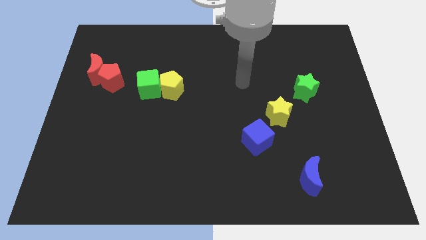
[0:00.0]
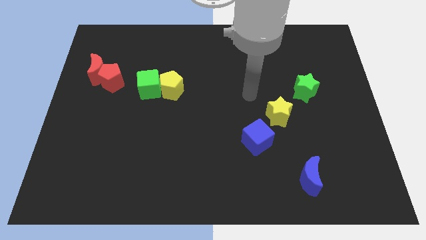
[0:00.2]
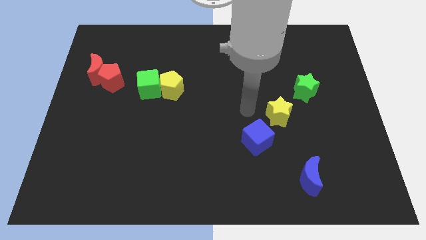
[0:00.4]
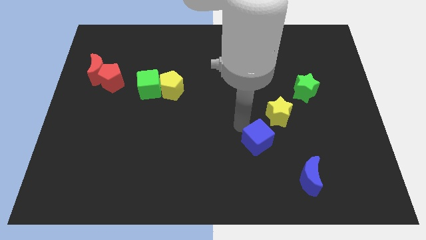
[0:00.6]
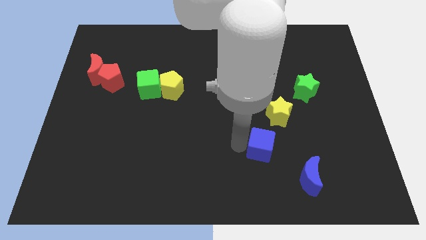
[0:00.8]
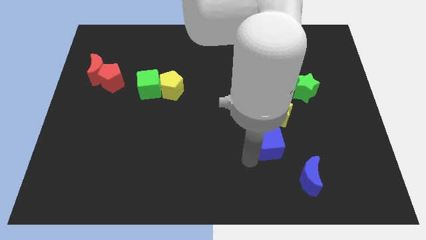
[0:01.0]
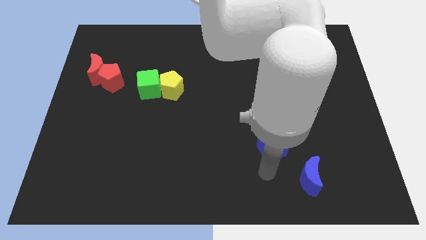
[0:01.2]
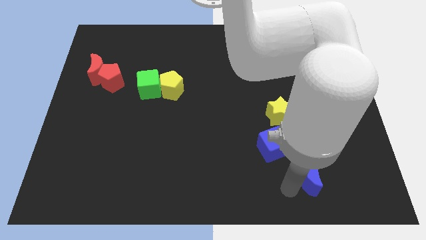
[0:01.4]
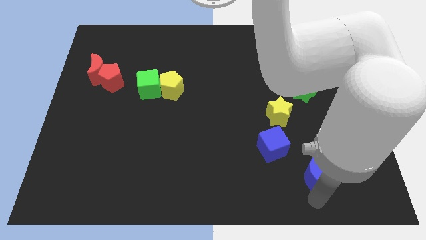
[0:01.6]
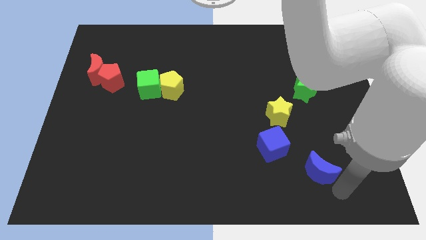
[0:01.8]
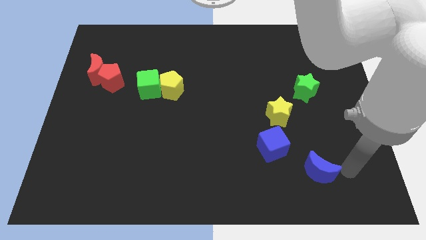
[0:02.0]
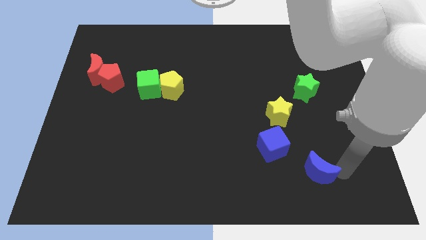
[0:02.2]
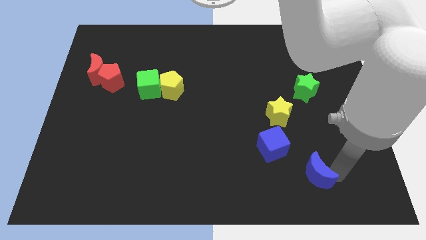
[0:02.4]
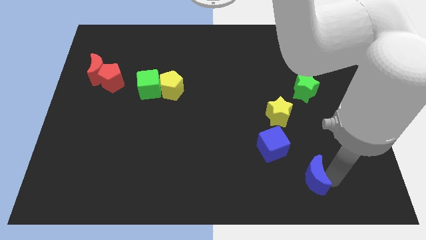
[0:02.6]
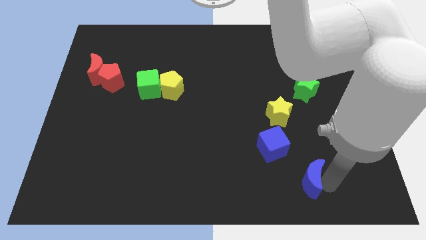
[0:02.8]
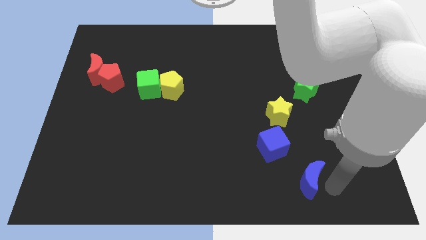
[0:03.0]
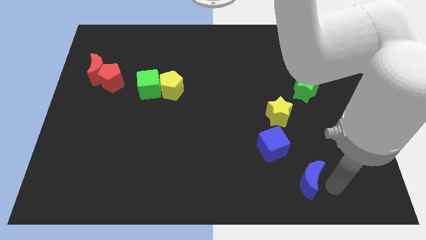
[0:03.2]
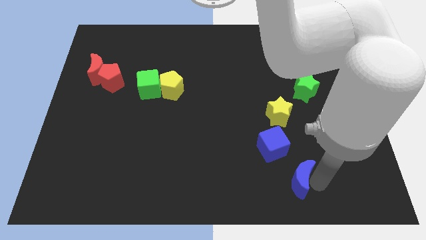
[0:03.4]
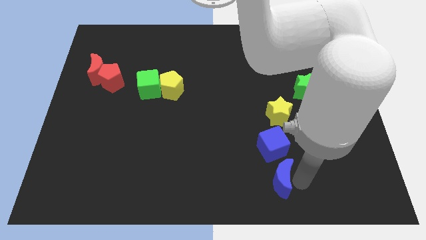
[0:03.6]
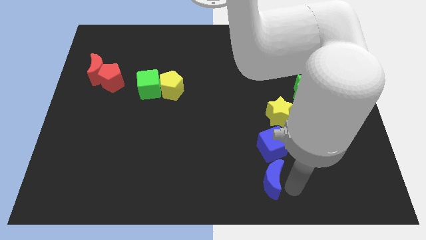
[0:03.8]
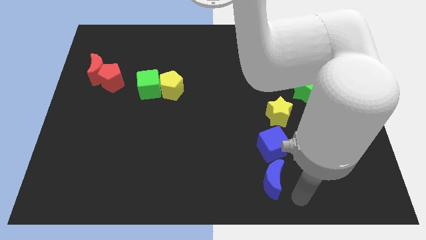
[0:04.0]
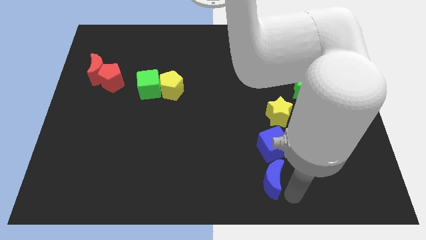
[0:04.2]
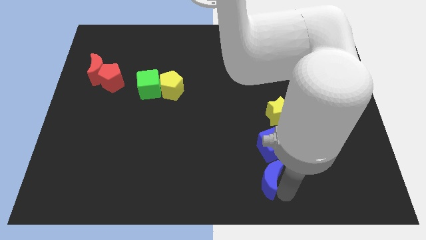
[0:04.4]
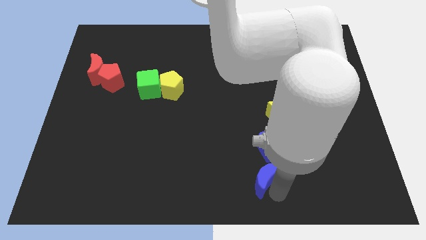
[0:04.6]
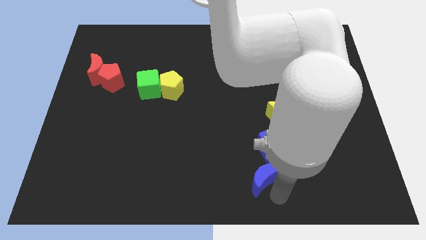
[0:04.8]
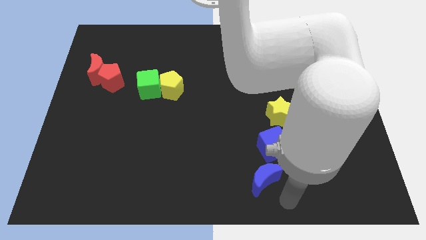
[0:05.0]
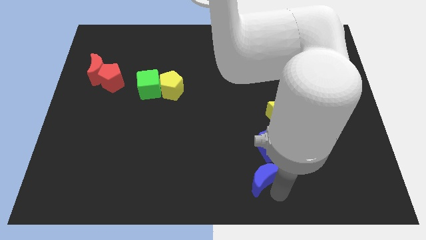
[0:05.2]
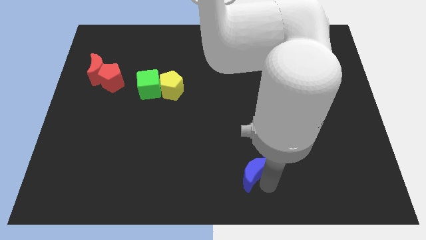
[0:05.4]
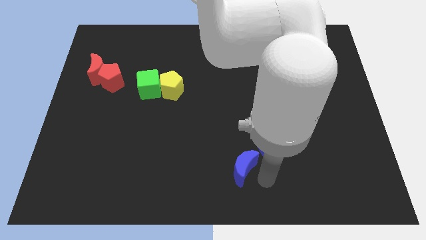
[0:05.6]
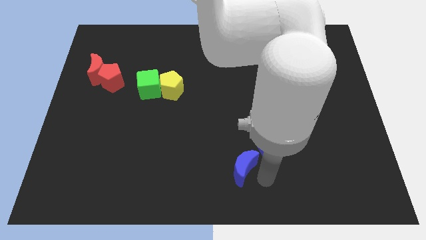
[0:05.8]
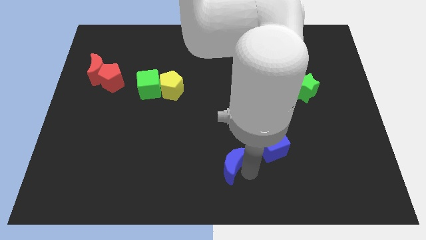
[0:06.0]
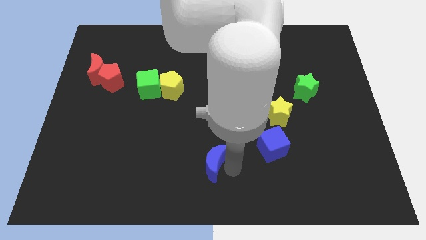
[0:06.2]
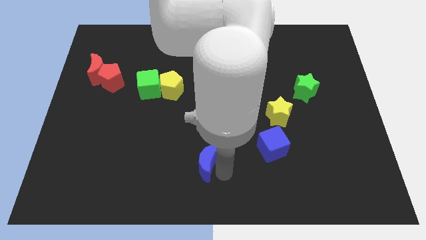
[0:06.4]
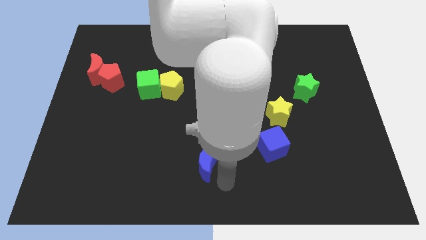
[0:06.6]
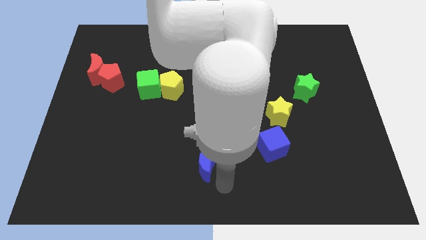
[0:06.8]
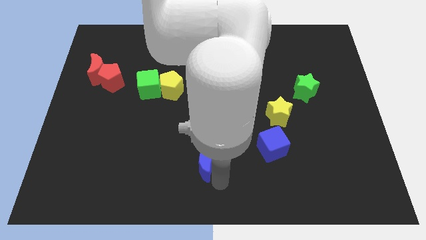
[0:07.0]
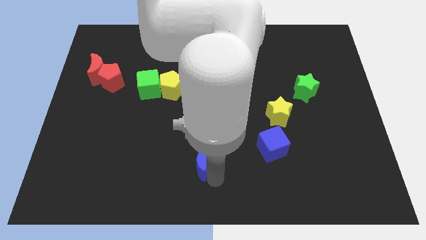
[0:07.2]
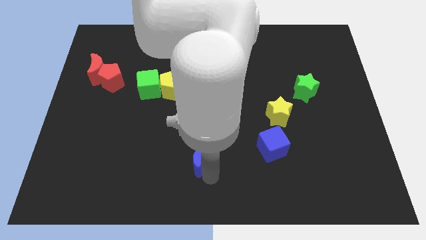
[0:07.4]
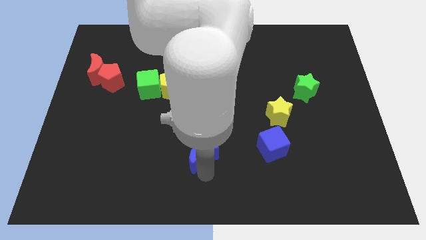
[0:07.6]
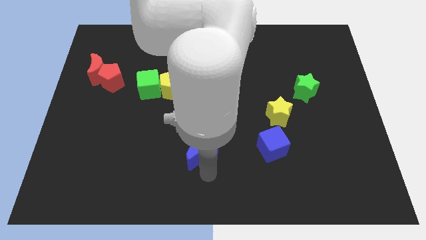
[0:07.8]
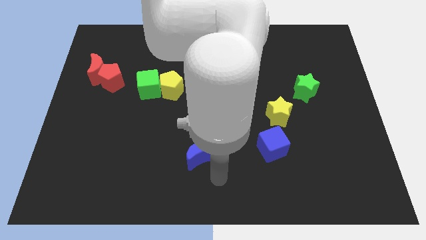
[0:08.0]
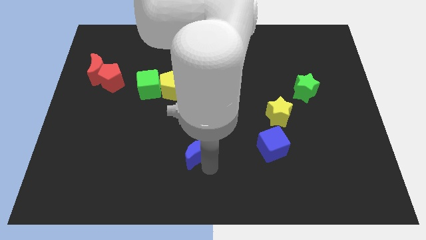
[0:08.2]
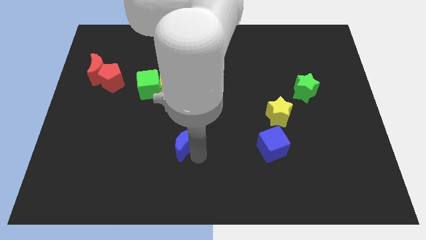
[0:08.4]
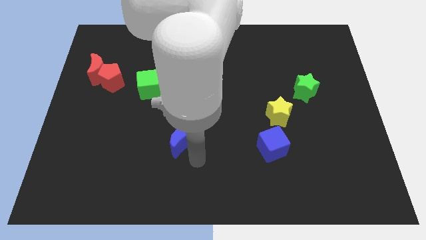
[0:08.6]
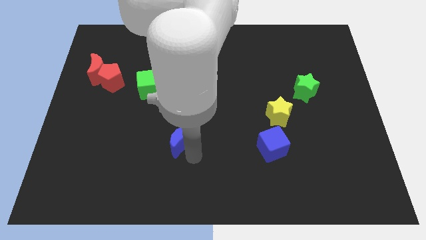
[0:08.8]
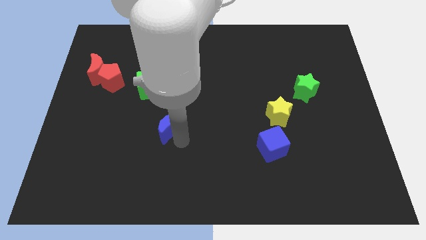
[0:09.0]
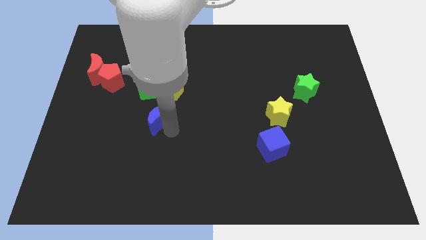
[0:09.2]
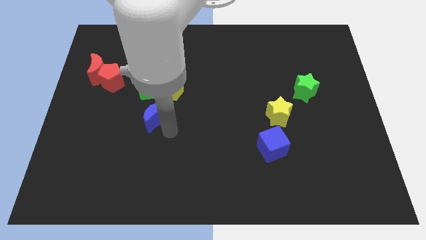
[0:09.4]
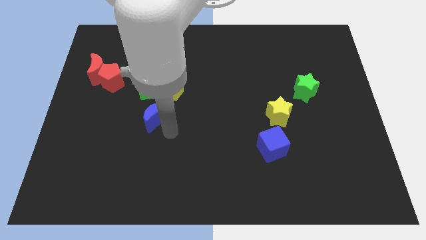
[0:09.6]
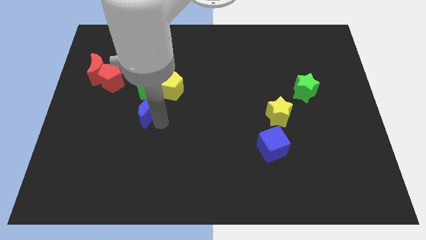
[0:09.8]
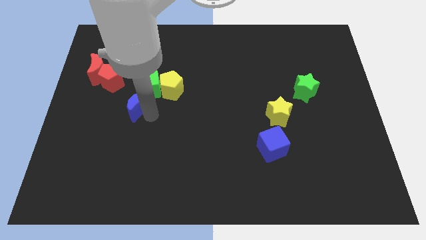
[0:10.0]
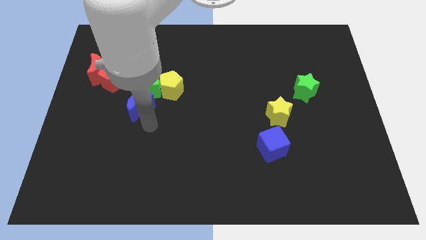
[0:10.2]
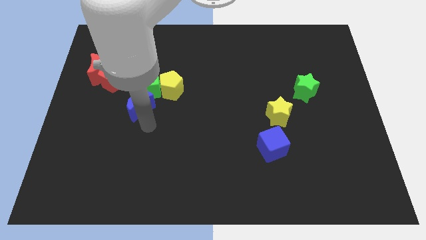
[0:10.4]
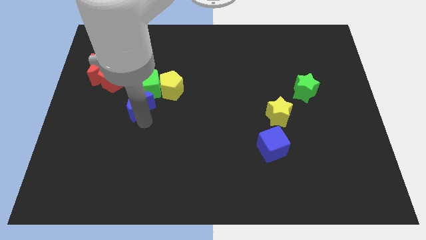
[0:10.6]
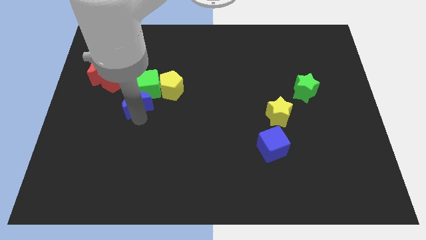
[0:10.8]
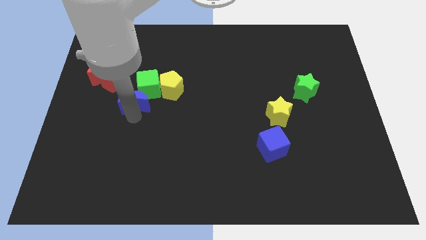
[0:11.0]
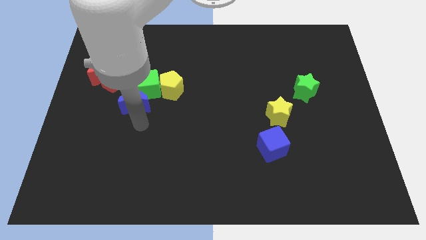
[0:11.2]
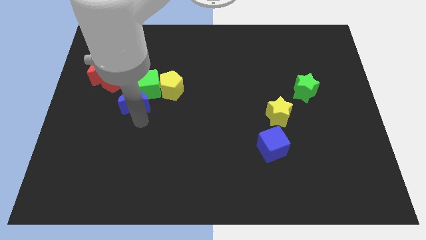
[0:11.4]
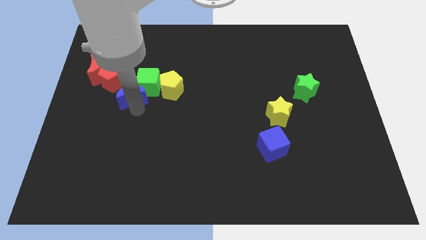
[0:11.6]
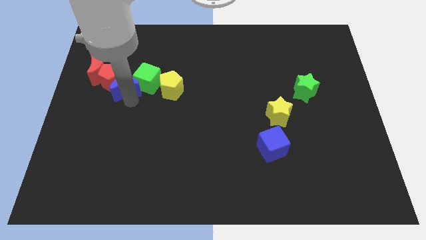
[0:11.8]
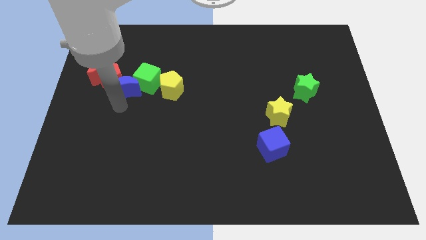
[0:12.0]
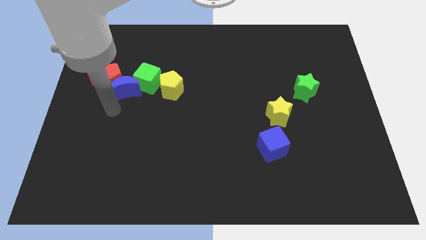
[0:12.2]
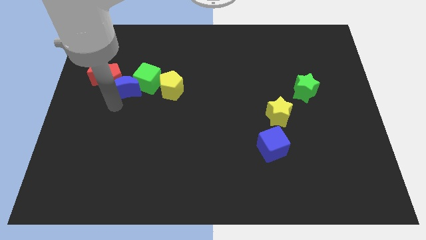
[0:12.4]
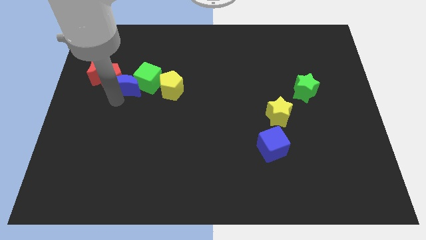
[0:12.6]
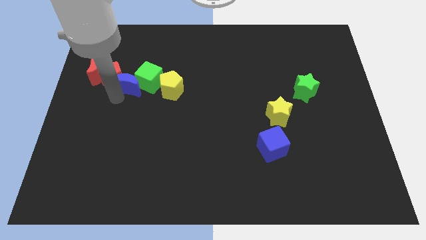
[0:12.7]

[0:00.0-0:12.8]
move the blue moon right of the red moon

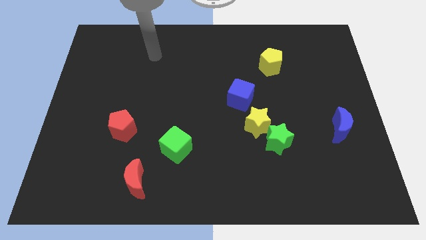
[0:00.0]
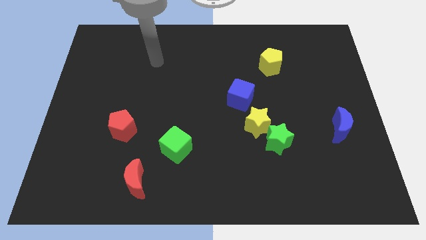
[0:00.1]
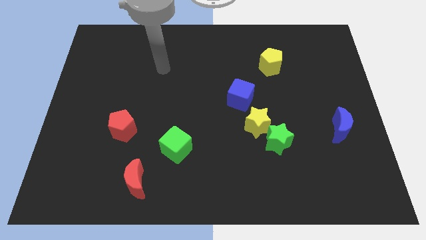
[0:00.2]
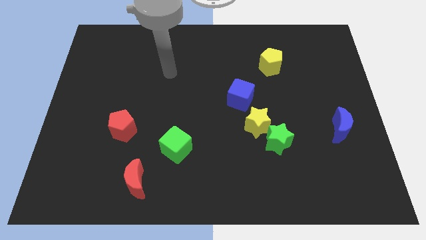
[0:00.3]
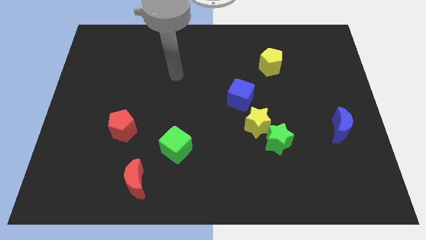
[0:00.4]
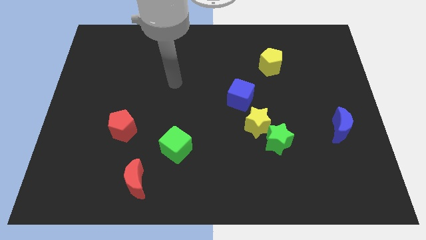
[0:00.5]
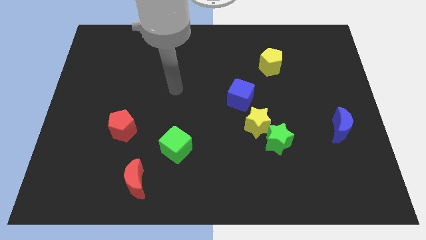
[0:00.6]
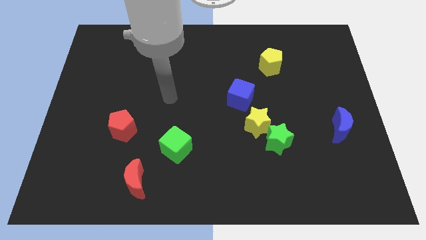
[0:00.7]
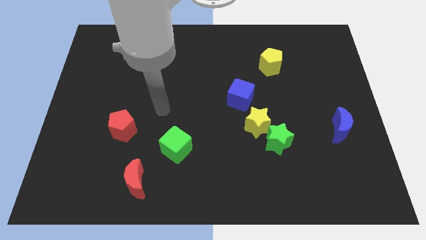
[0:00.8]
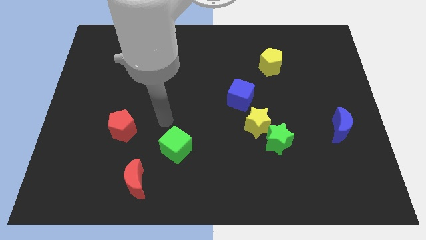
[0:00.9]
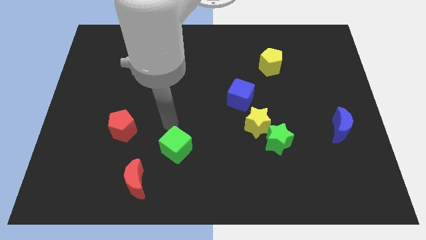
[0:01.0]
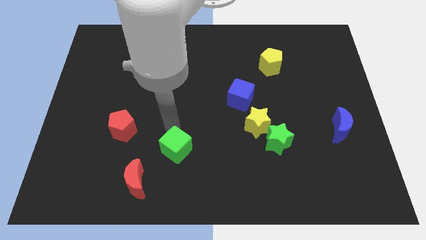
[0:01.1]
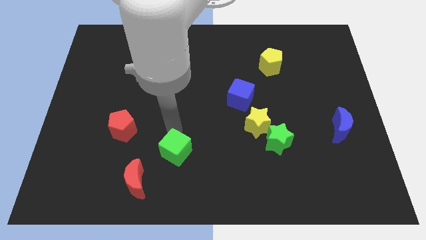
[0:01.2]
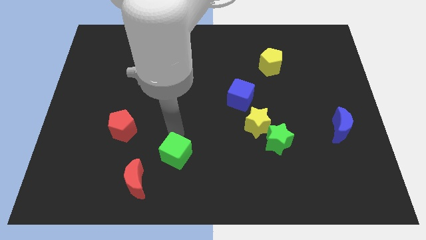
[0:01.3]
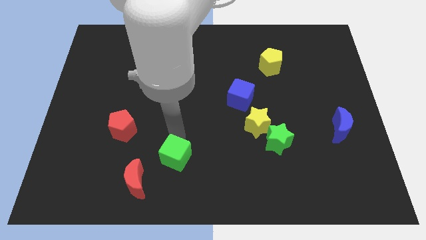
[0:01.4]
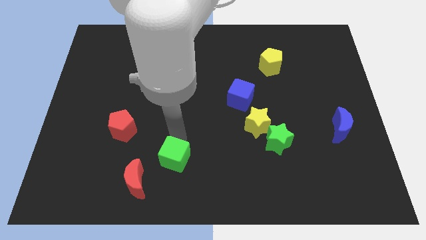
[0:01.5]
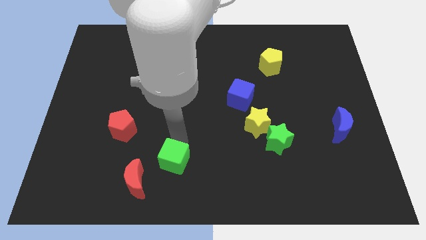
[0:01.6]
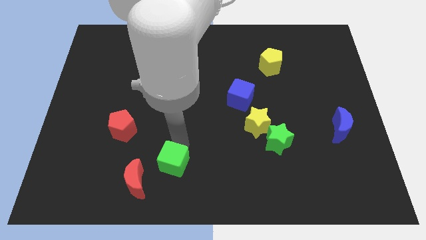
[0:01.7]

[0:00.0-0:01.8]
put the green cube right of the red moon
